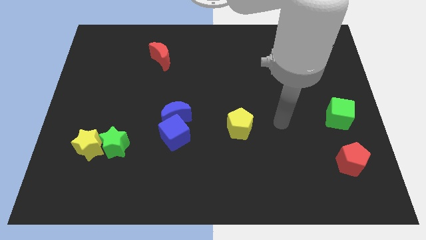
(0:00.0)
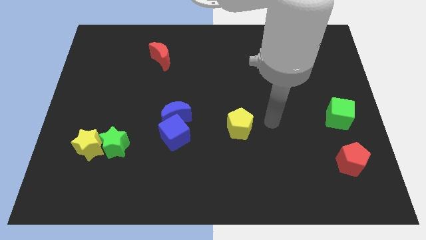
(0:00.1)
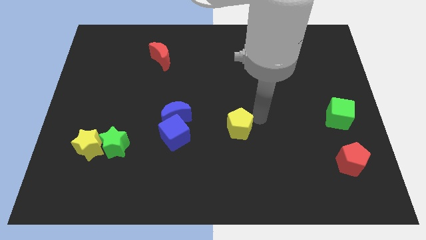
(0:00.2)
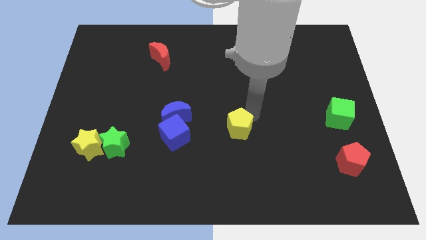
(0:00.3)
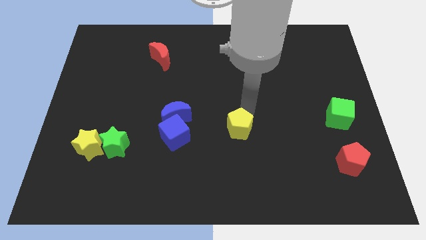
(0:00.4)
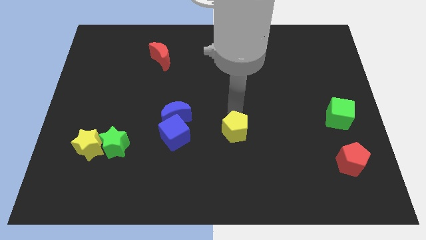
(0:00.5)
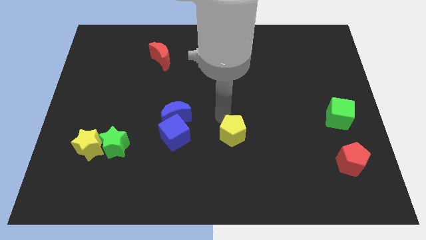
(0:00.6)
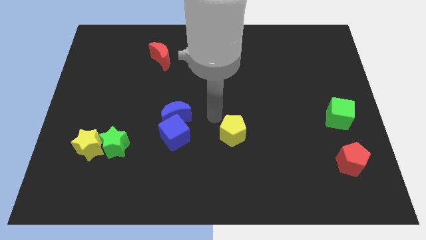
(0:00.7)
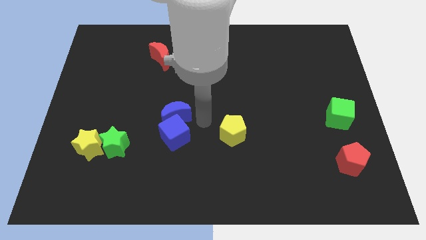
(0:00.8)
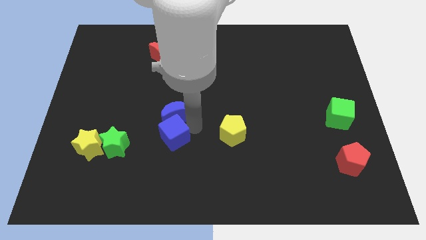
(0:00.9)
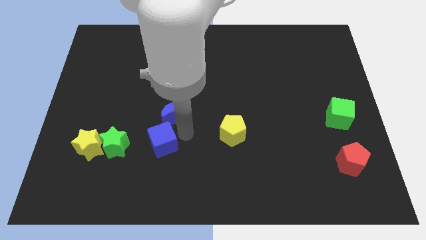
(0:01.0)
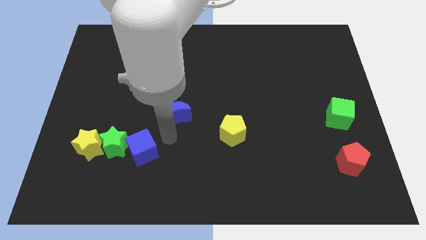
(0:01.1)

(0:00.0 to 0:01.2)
separate the blue moon from the blue cube

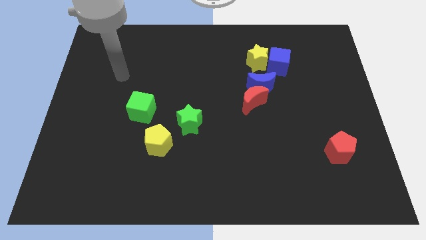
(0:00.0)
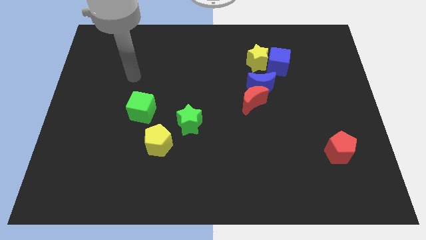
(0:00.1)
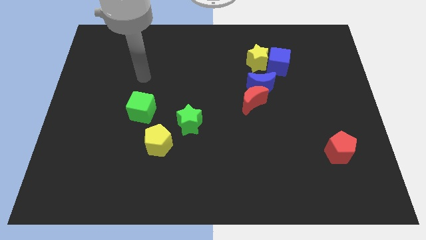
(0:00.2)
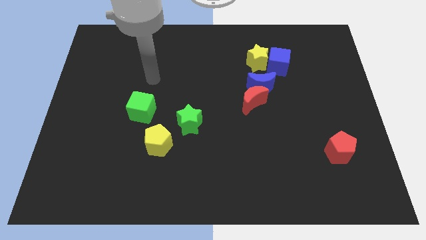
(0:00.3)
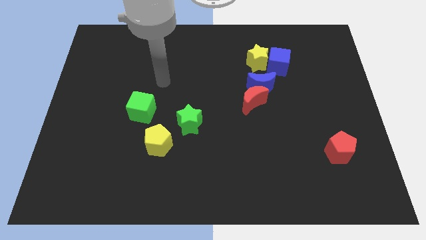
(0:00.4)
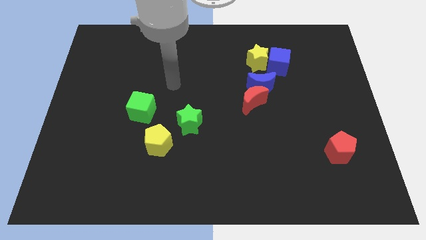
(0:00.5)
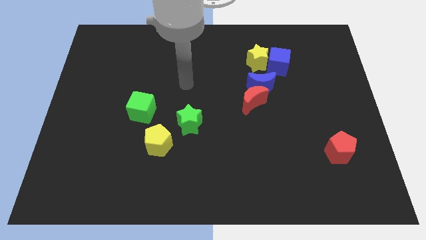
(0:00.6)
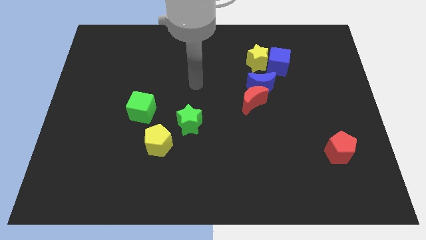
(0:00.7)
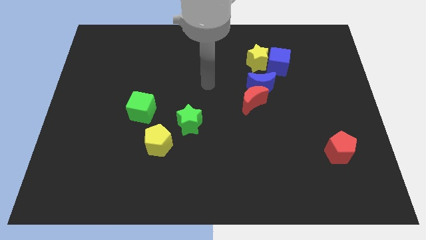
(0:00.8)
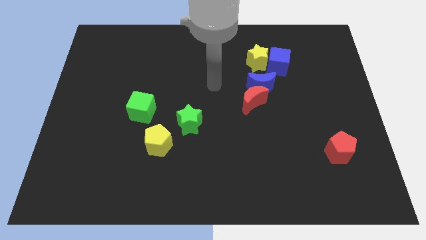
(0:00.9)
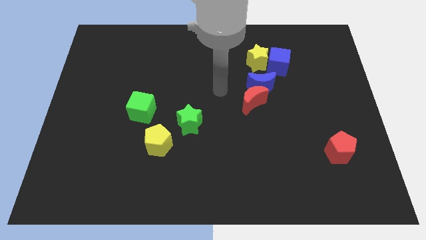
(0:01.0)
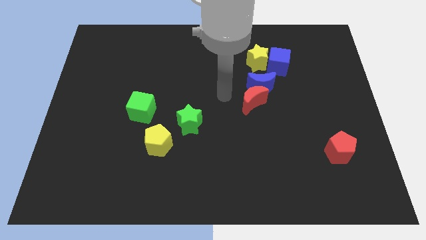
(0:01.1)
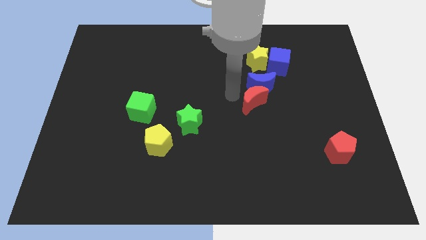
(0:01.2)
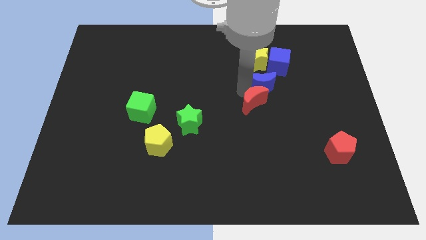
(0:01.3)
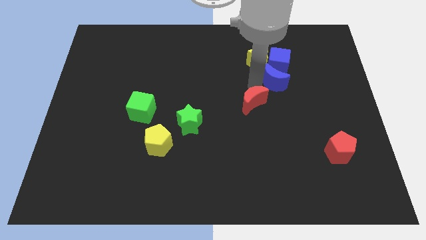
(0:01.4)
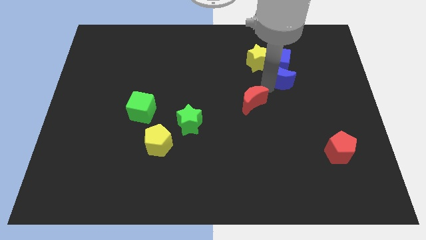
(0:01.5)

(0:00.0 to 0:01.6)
move the red moon away from the blue moon

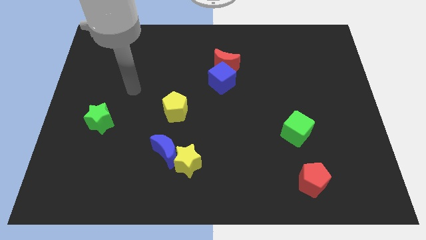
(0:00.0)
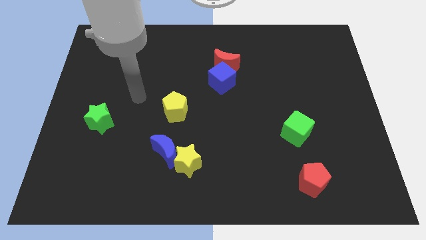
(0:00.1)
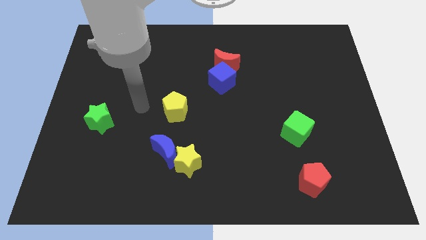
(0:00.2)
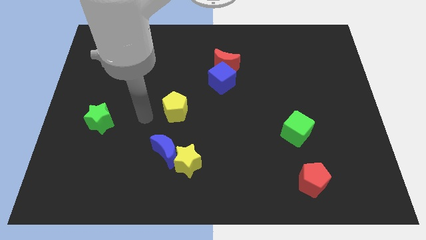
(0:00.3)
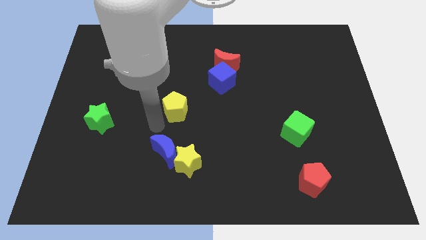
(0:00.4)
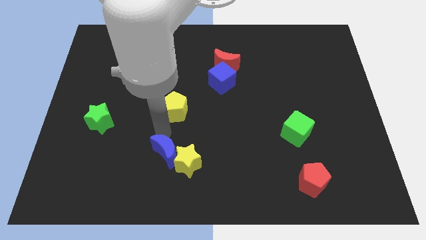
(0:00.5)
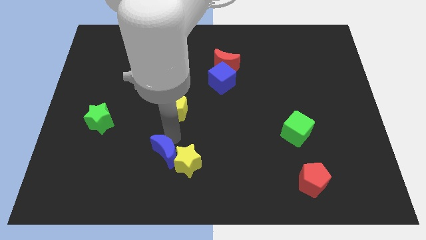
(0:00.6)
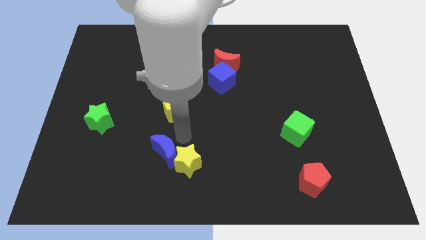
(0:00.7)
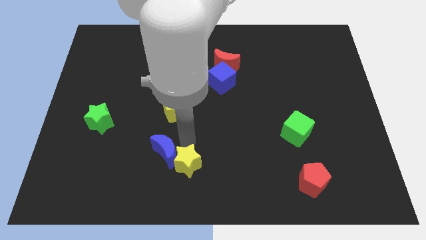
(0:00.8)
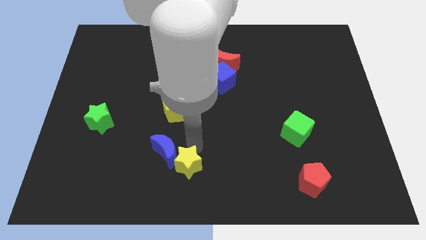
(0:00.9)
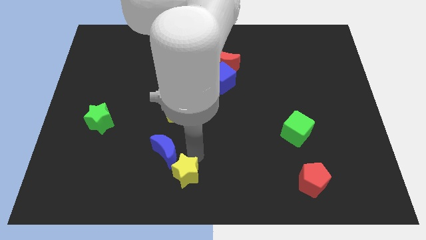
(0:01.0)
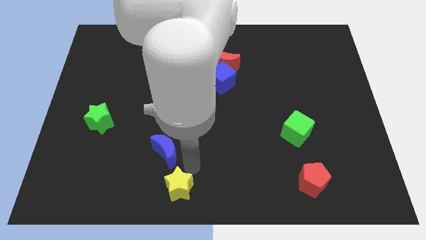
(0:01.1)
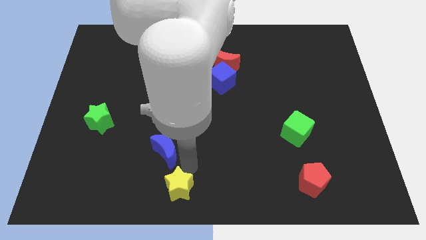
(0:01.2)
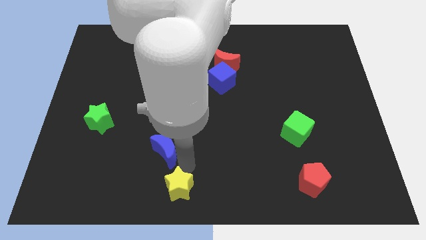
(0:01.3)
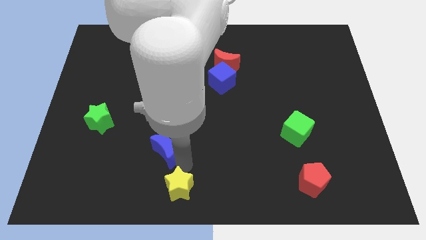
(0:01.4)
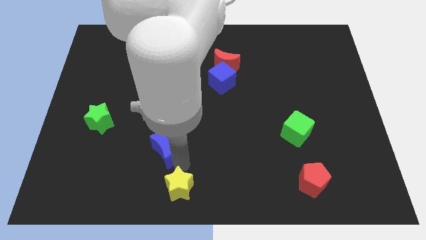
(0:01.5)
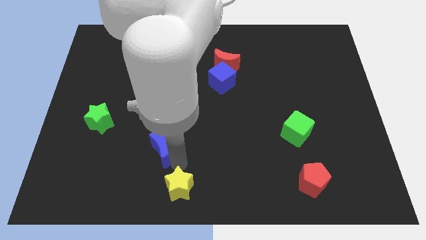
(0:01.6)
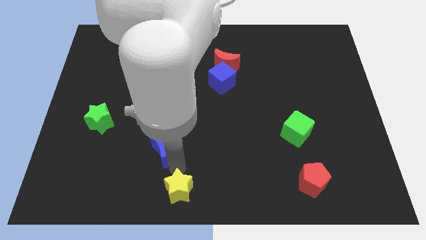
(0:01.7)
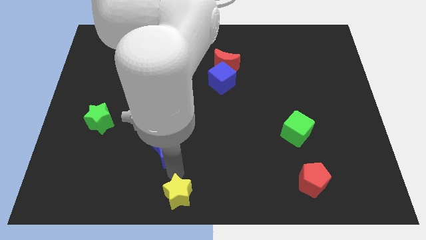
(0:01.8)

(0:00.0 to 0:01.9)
separate the blue moon from the yellow star

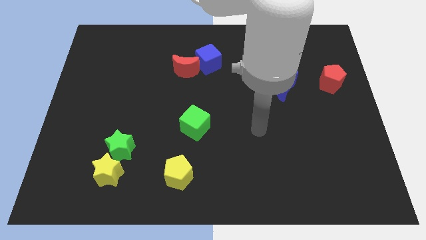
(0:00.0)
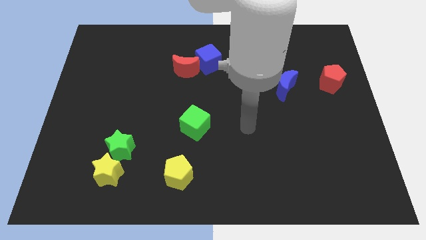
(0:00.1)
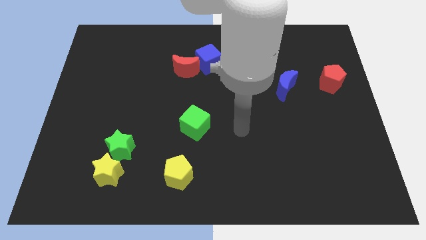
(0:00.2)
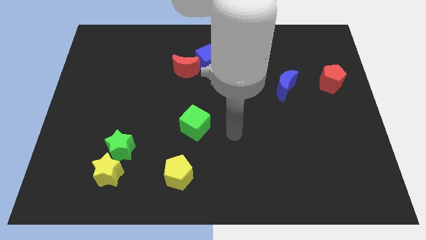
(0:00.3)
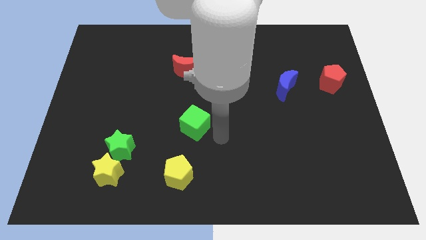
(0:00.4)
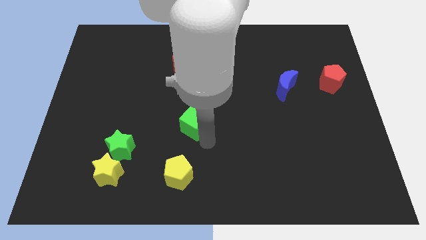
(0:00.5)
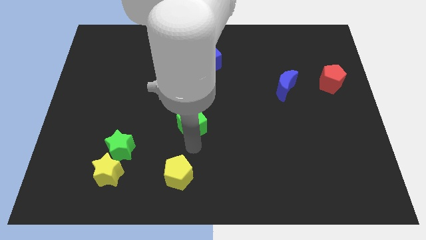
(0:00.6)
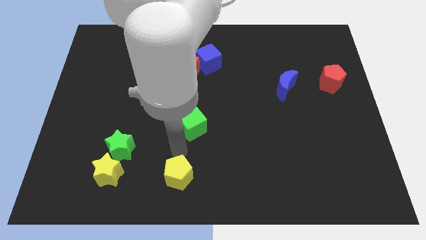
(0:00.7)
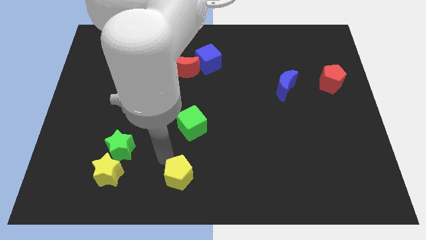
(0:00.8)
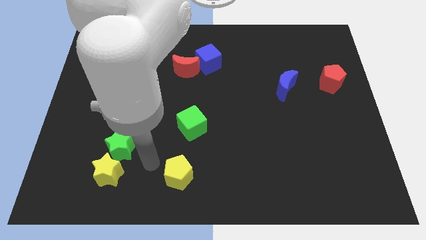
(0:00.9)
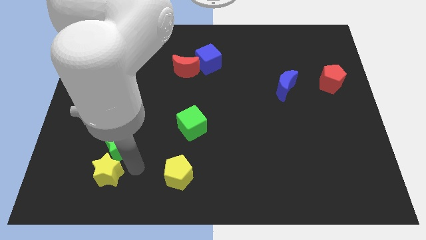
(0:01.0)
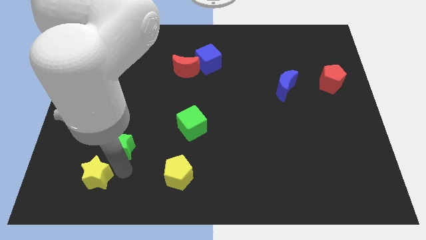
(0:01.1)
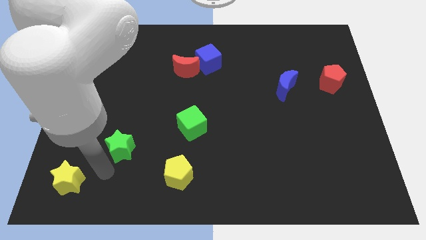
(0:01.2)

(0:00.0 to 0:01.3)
separate the green star from the yellow star

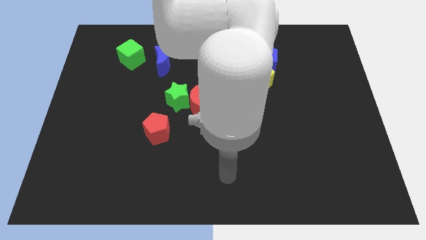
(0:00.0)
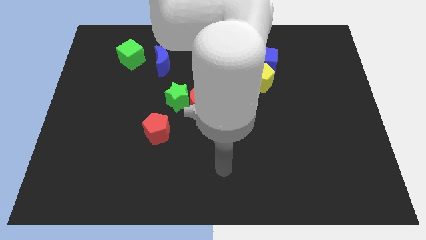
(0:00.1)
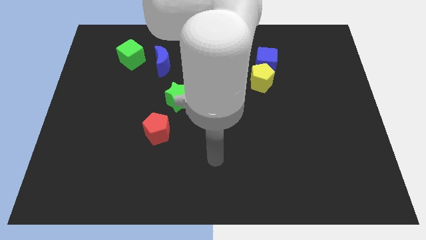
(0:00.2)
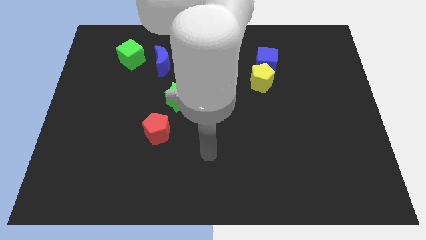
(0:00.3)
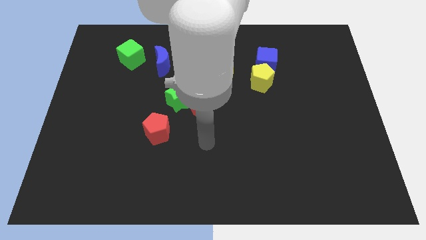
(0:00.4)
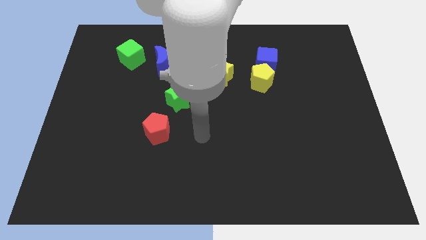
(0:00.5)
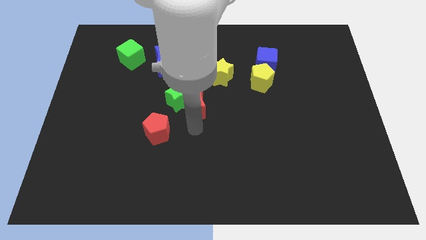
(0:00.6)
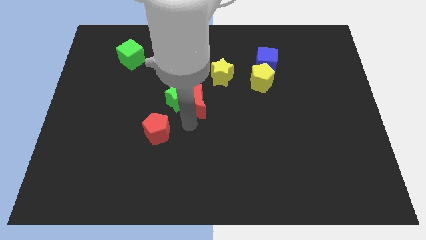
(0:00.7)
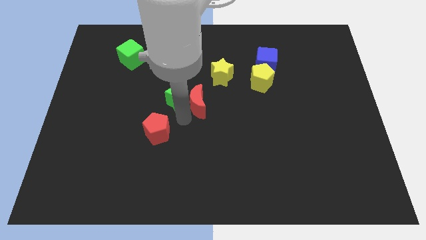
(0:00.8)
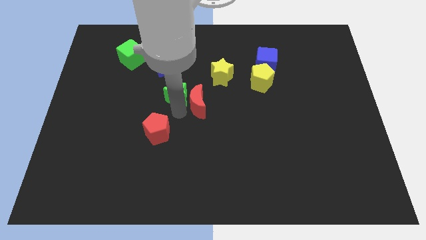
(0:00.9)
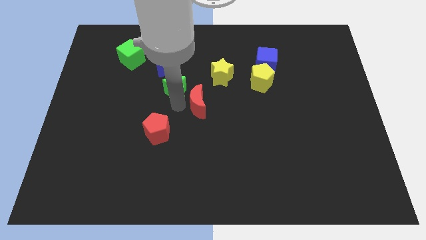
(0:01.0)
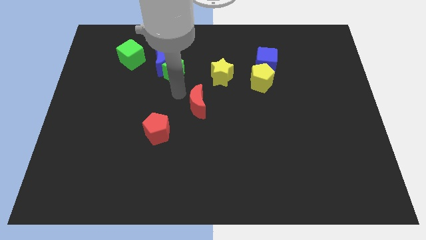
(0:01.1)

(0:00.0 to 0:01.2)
move the red moon away from the green star

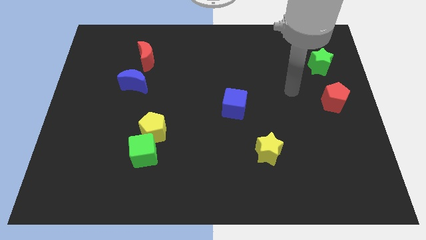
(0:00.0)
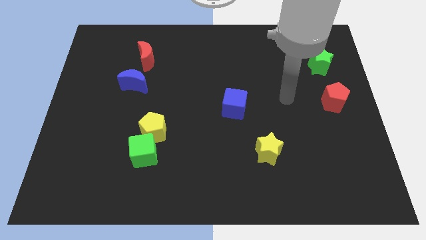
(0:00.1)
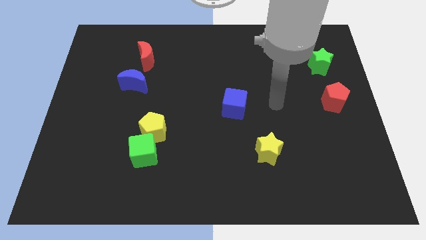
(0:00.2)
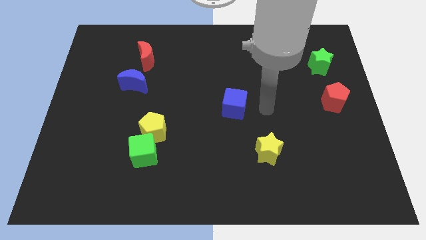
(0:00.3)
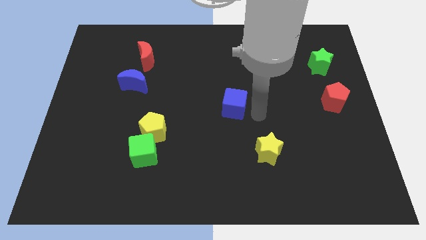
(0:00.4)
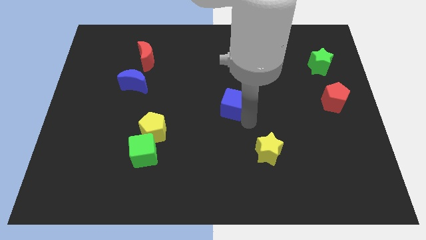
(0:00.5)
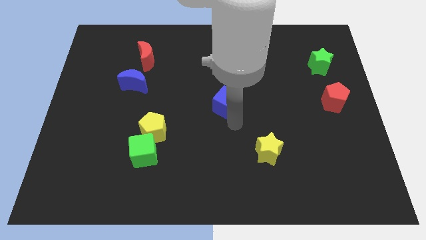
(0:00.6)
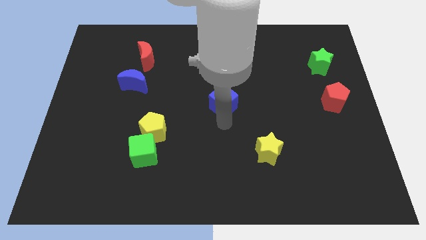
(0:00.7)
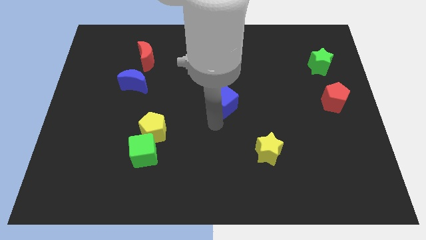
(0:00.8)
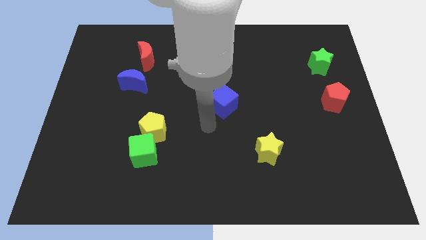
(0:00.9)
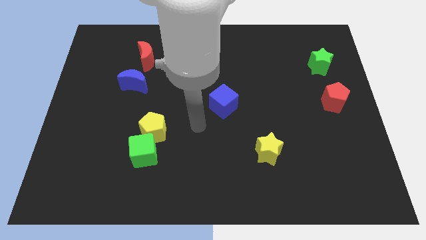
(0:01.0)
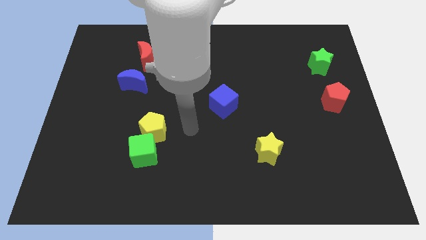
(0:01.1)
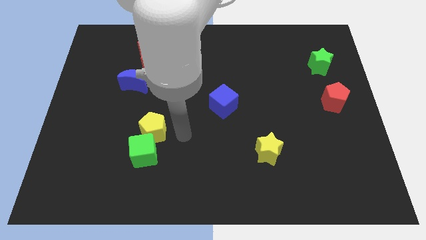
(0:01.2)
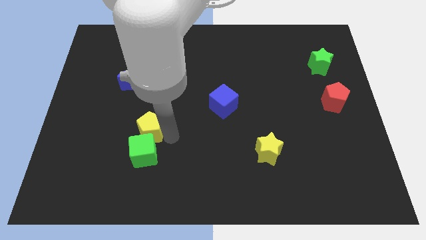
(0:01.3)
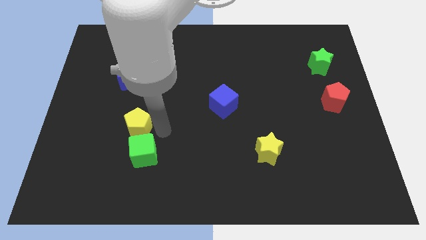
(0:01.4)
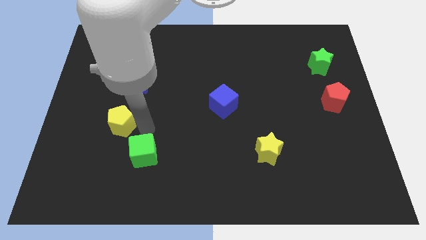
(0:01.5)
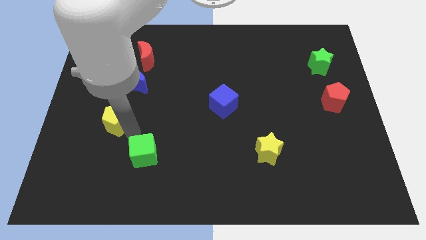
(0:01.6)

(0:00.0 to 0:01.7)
move the green cube away from the yellow pentagon

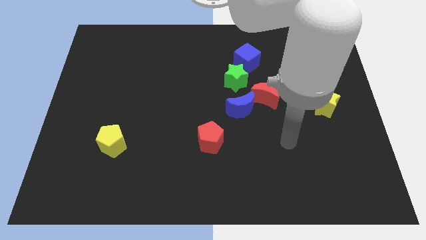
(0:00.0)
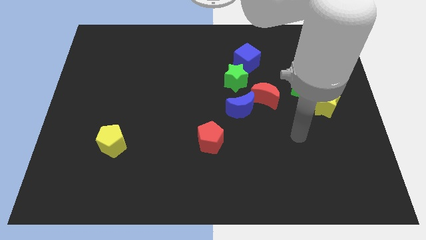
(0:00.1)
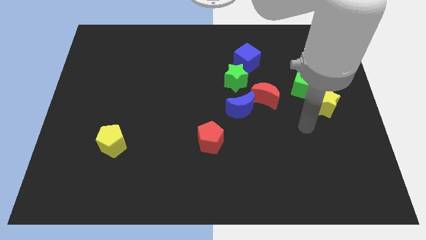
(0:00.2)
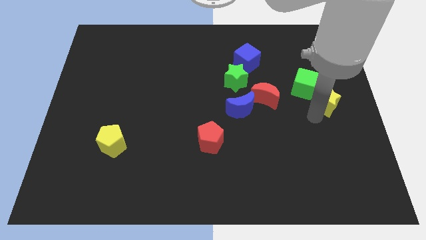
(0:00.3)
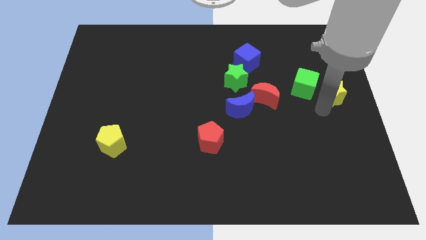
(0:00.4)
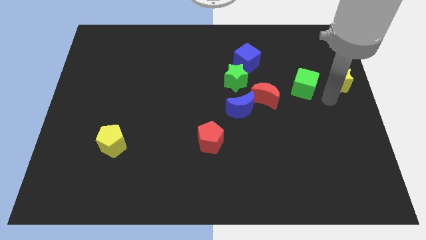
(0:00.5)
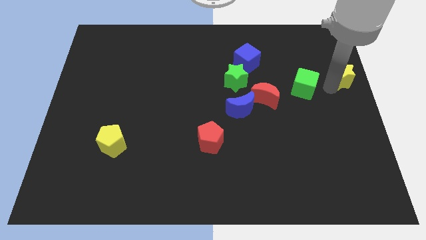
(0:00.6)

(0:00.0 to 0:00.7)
separate the green cube from the yellow star
